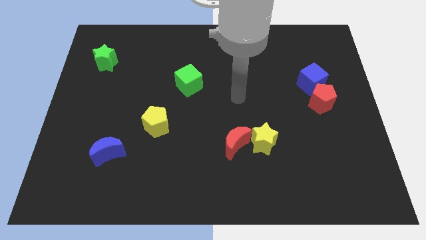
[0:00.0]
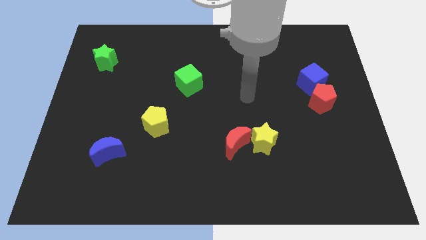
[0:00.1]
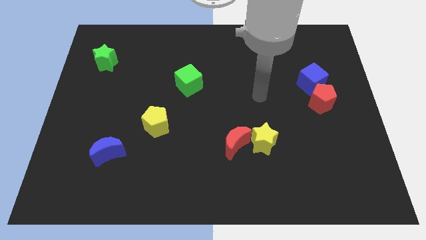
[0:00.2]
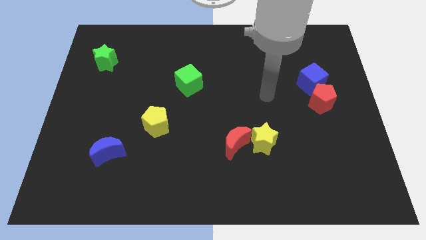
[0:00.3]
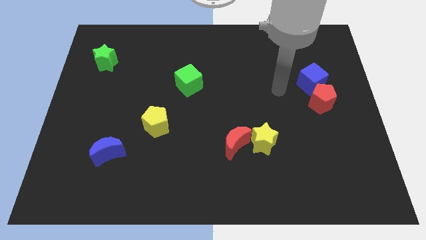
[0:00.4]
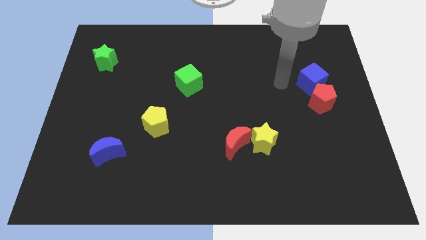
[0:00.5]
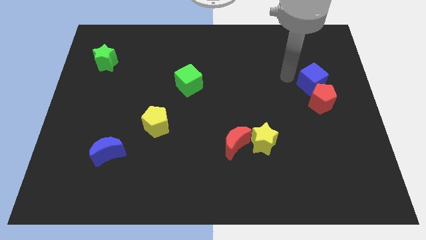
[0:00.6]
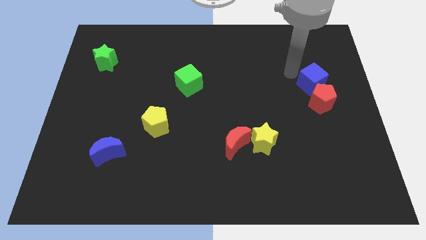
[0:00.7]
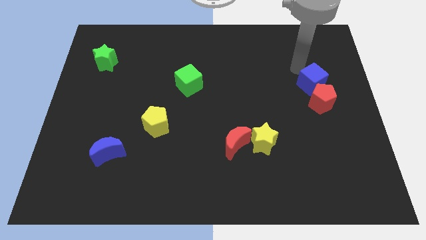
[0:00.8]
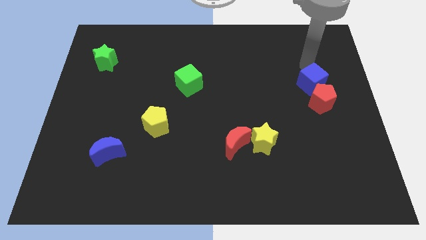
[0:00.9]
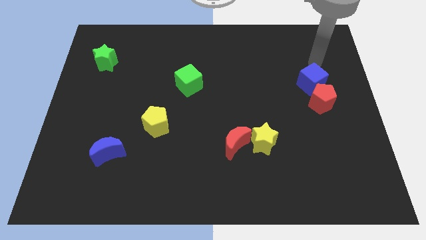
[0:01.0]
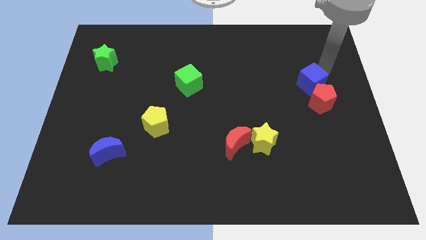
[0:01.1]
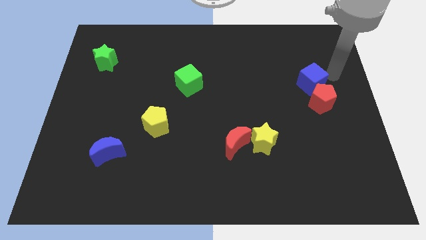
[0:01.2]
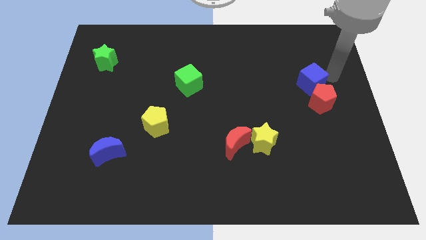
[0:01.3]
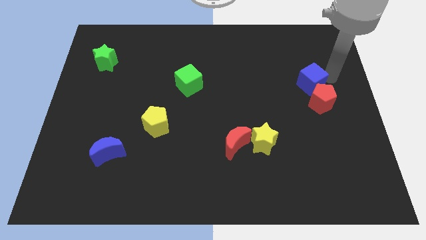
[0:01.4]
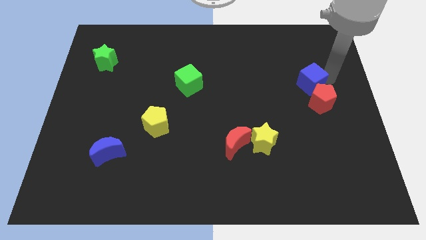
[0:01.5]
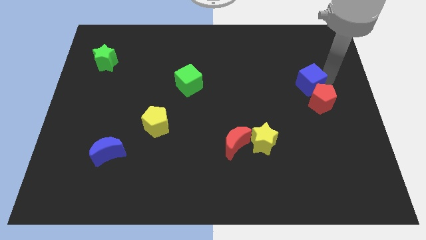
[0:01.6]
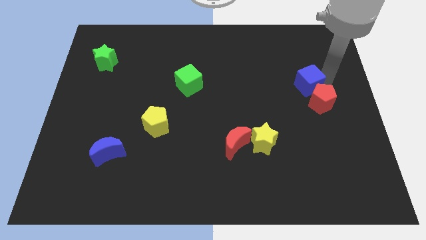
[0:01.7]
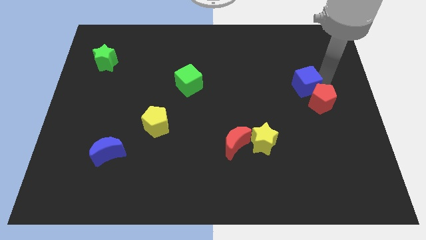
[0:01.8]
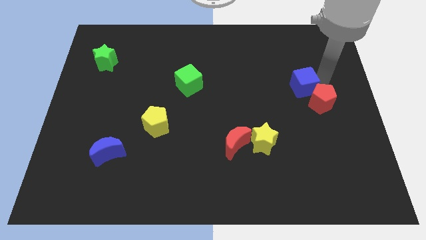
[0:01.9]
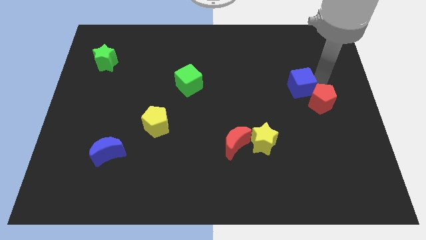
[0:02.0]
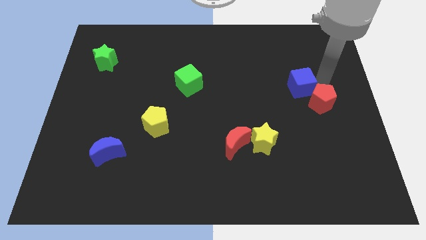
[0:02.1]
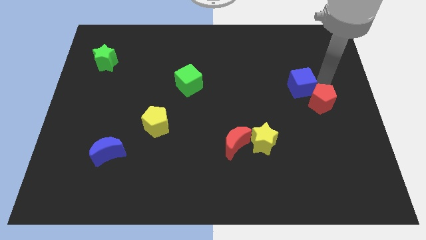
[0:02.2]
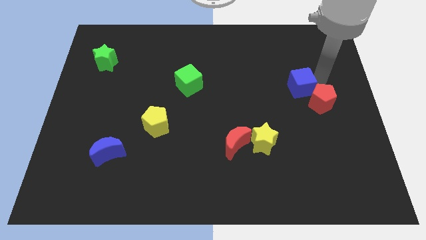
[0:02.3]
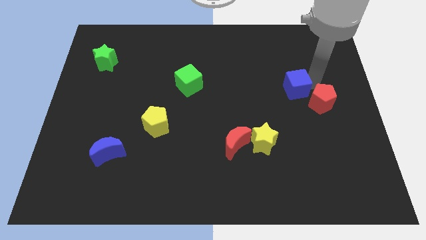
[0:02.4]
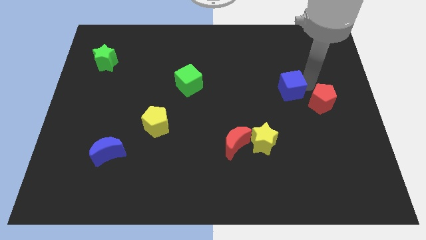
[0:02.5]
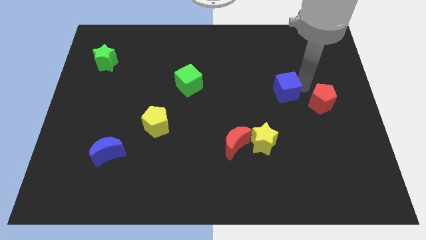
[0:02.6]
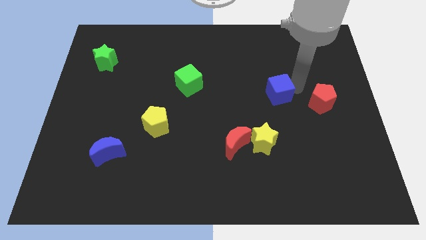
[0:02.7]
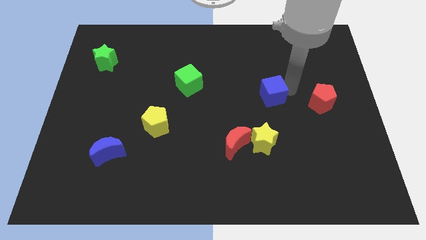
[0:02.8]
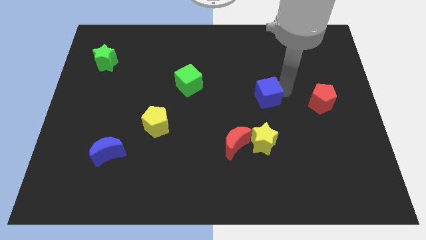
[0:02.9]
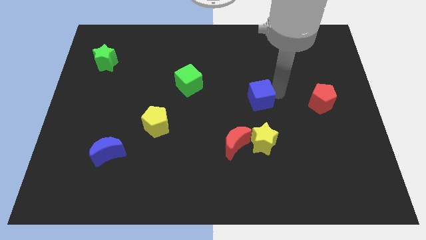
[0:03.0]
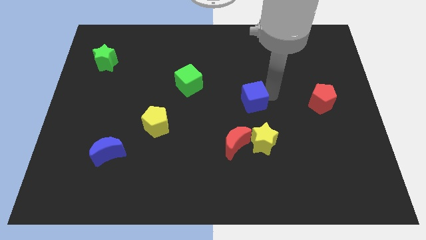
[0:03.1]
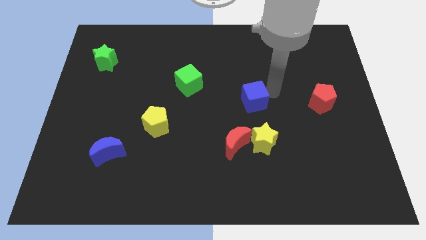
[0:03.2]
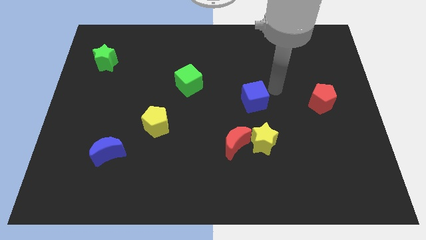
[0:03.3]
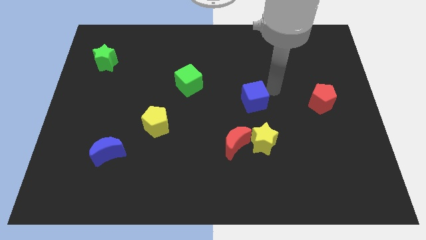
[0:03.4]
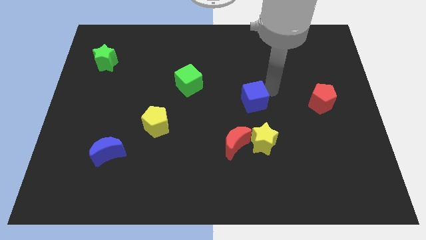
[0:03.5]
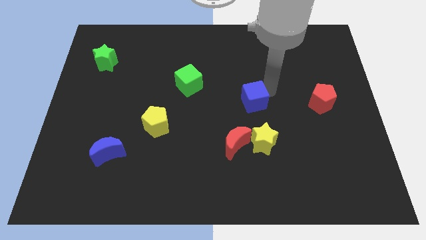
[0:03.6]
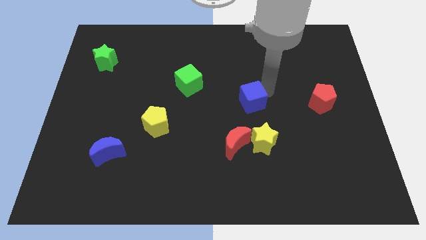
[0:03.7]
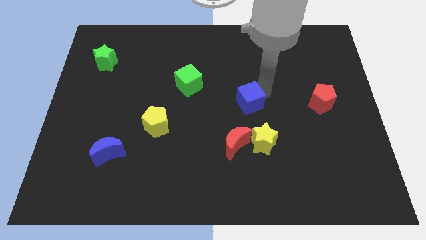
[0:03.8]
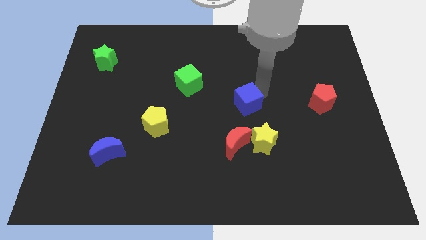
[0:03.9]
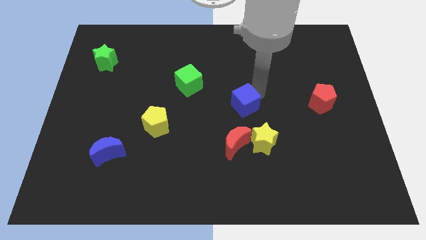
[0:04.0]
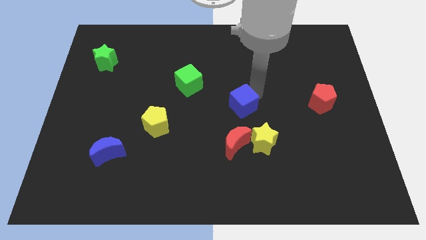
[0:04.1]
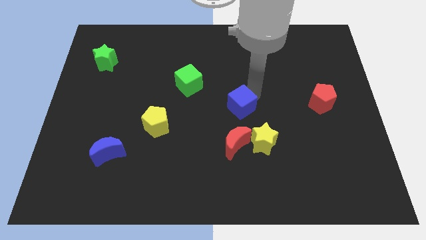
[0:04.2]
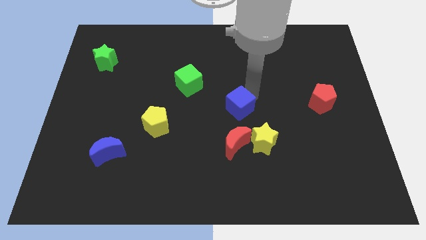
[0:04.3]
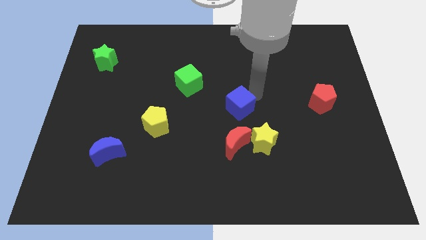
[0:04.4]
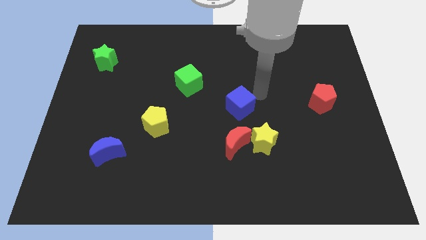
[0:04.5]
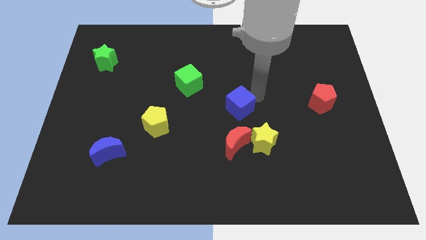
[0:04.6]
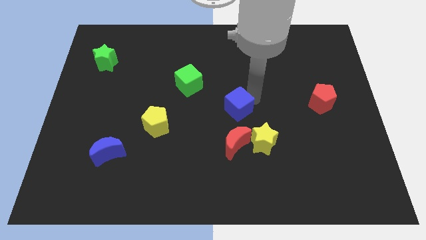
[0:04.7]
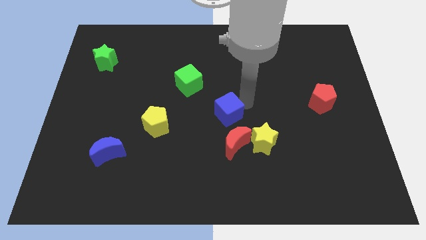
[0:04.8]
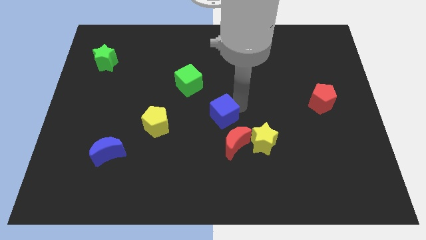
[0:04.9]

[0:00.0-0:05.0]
slide the blue cube diagonally up and to the left of the red moon

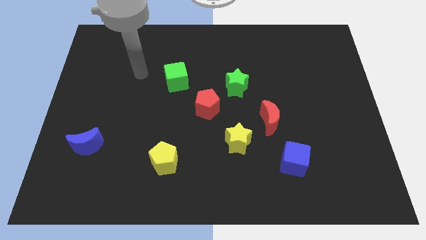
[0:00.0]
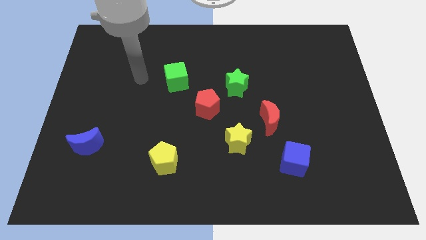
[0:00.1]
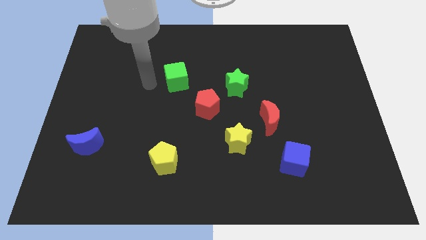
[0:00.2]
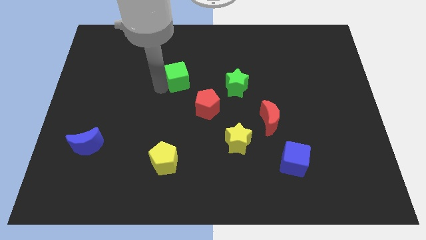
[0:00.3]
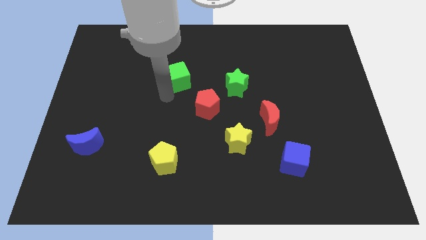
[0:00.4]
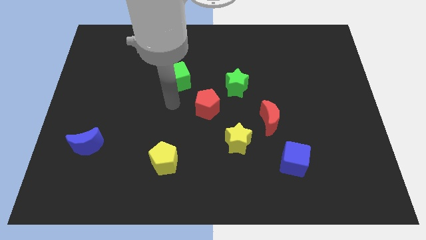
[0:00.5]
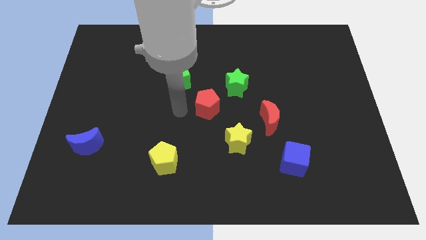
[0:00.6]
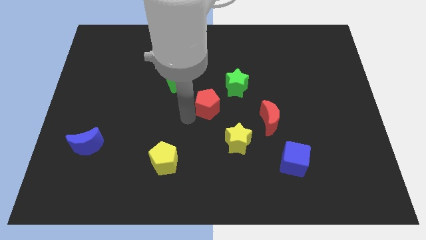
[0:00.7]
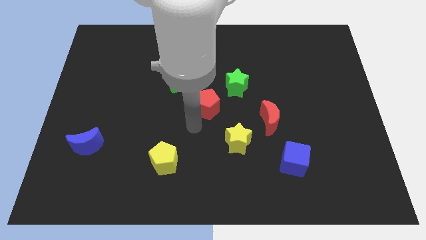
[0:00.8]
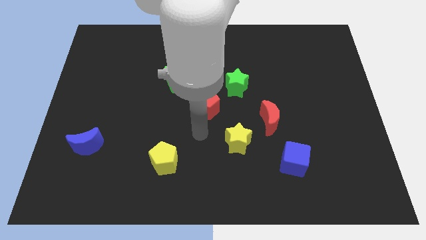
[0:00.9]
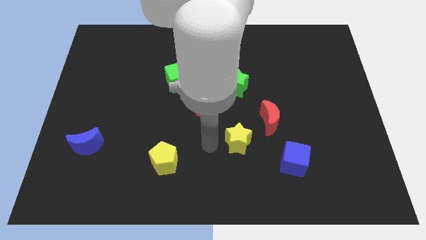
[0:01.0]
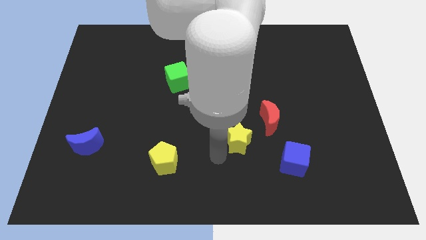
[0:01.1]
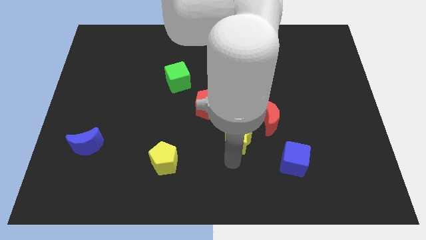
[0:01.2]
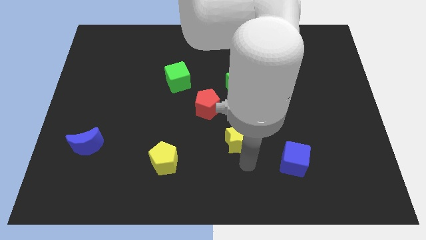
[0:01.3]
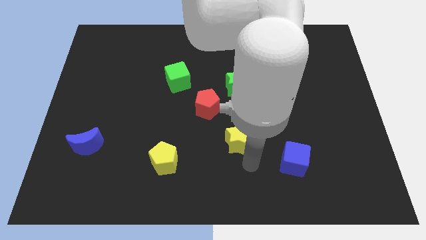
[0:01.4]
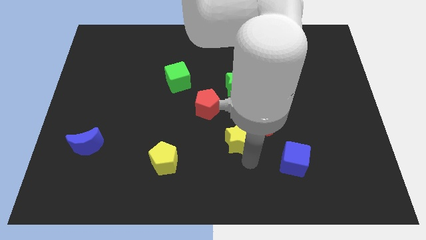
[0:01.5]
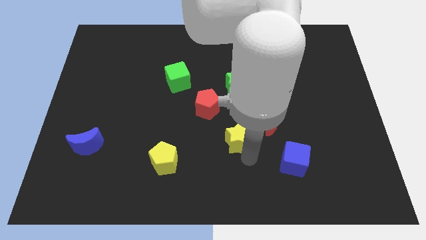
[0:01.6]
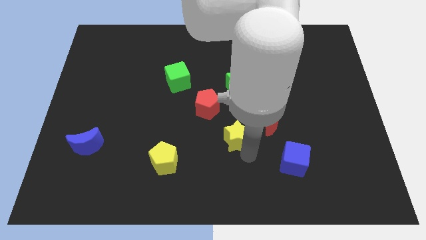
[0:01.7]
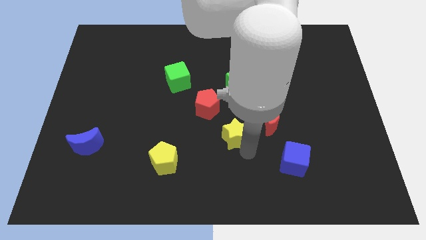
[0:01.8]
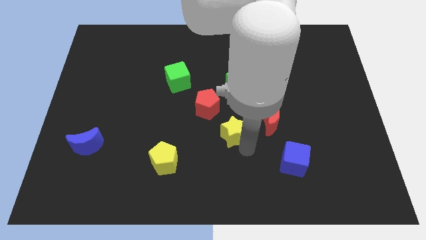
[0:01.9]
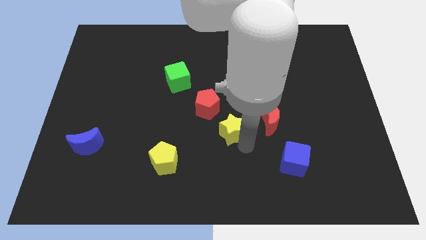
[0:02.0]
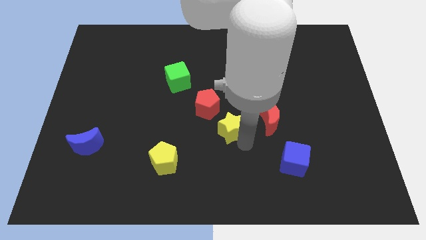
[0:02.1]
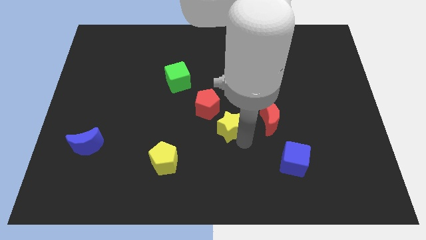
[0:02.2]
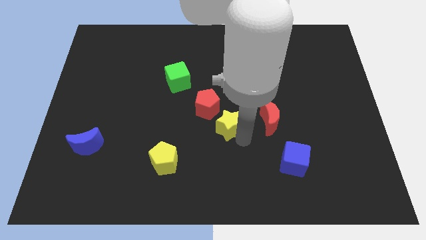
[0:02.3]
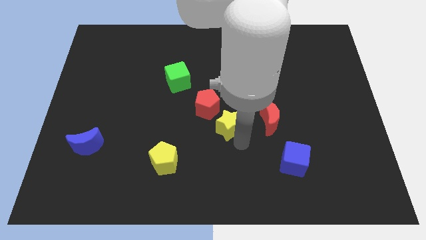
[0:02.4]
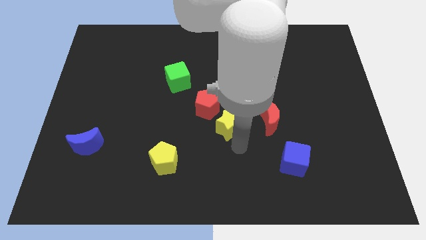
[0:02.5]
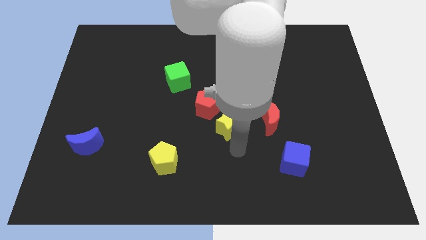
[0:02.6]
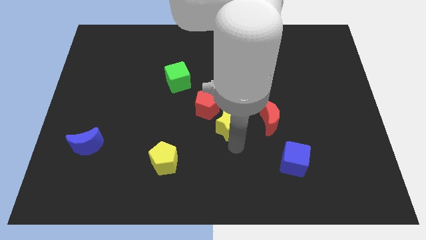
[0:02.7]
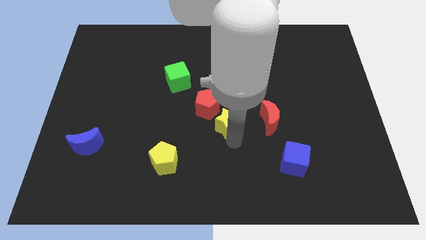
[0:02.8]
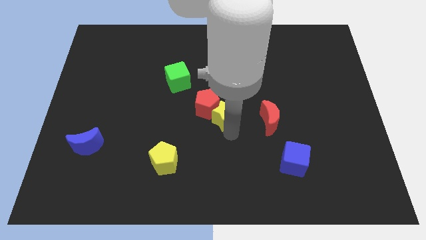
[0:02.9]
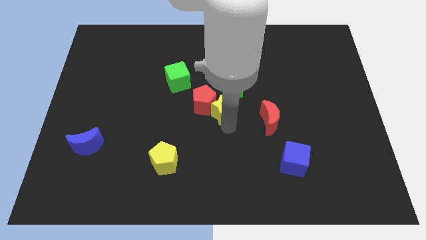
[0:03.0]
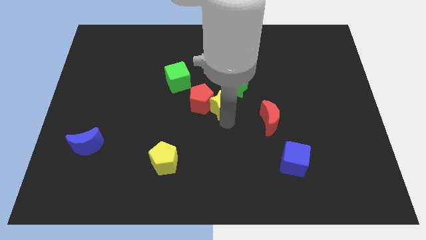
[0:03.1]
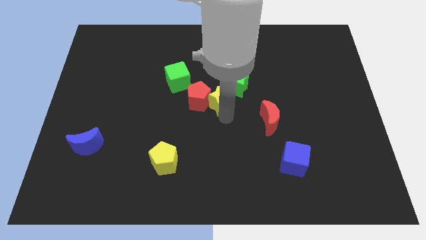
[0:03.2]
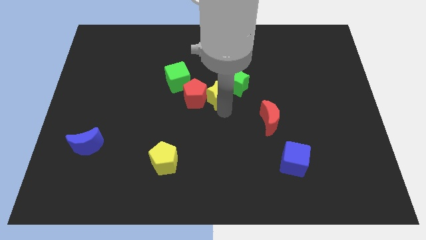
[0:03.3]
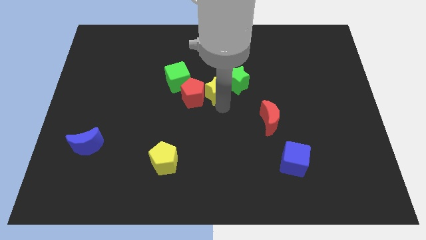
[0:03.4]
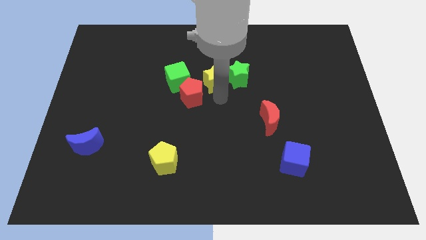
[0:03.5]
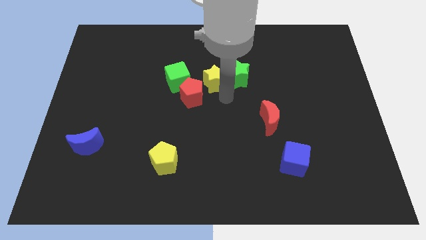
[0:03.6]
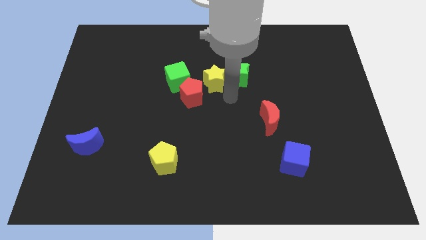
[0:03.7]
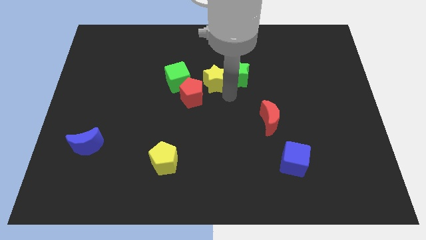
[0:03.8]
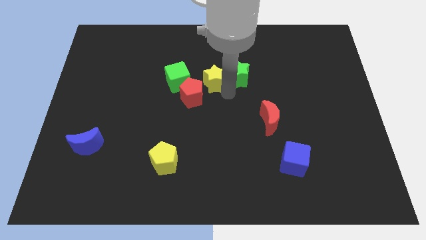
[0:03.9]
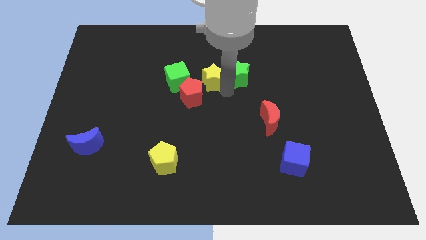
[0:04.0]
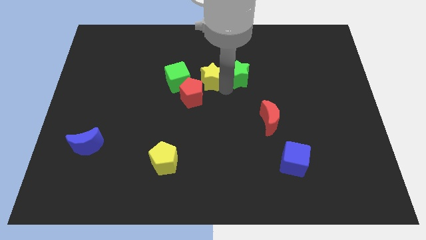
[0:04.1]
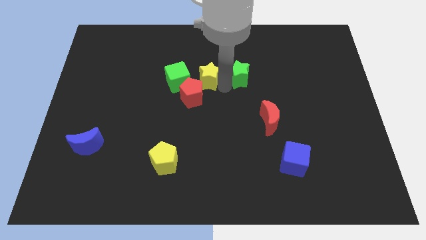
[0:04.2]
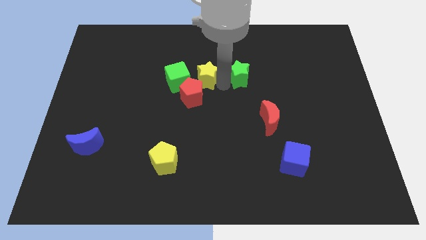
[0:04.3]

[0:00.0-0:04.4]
slide the yellow star diagonally up and to the right of the green cube
